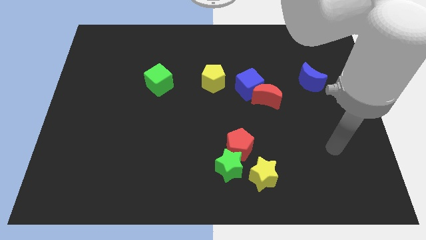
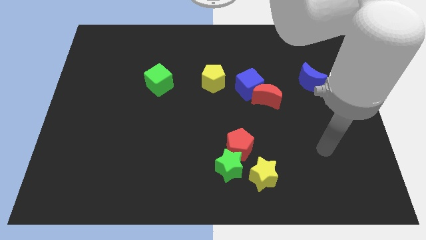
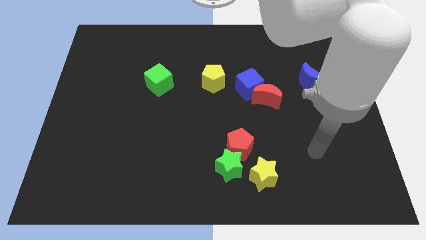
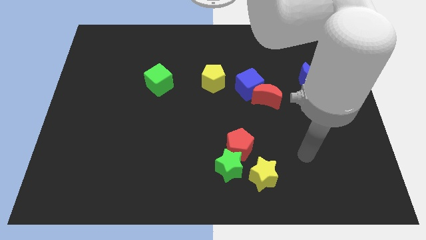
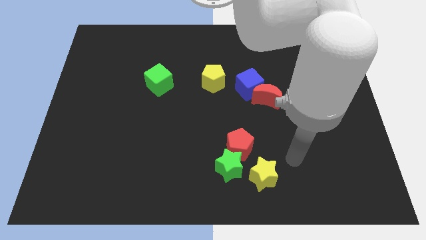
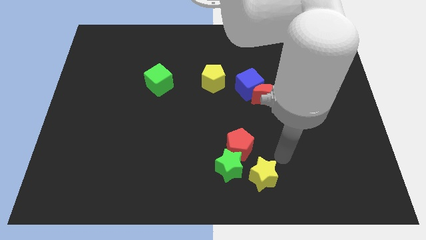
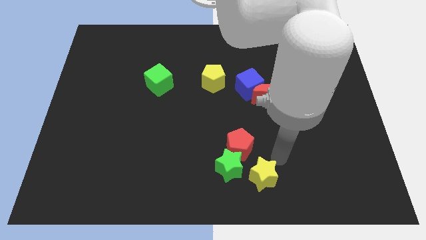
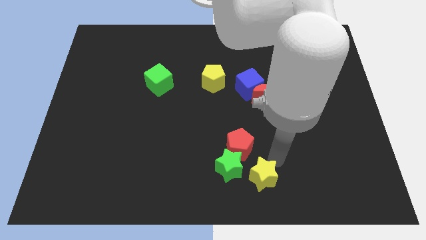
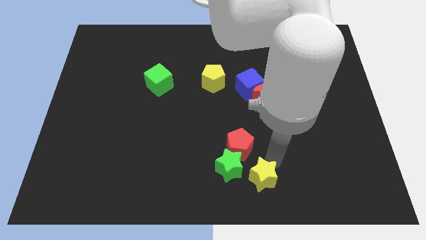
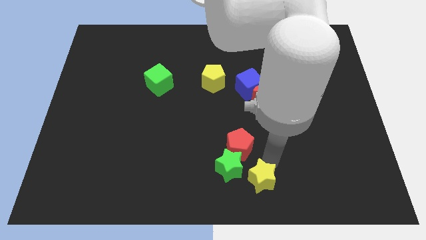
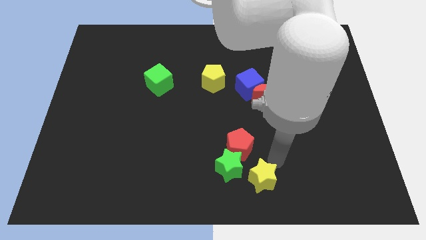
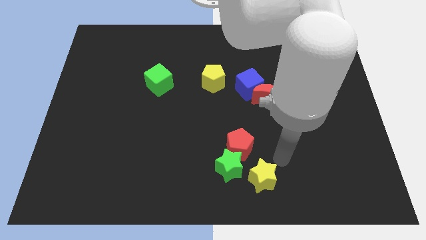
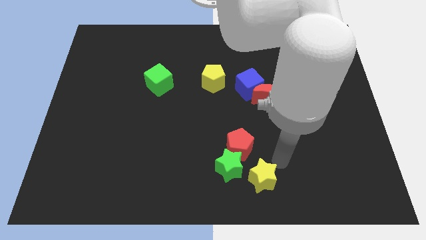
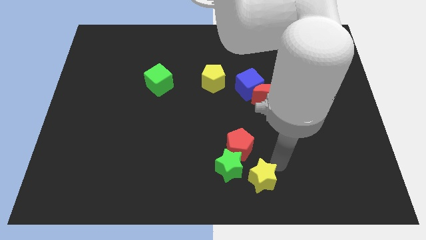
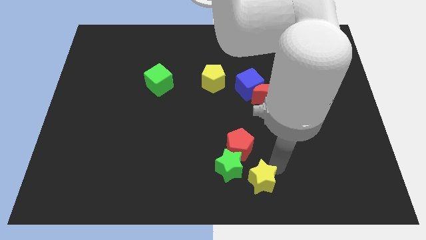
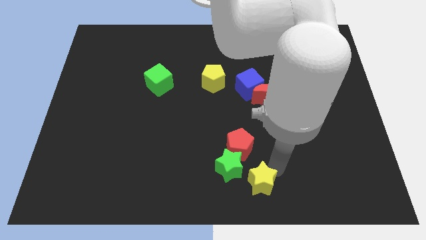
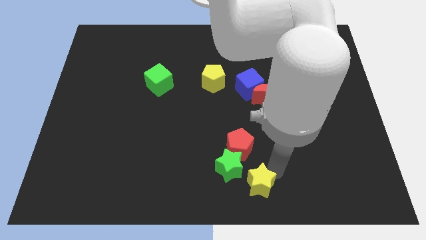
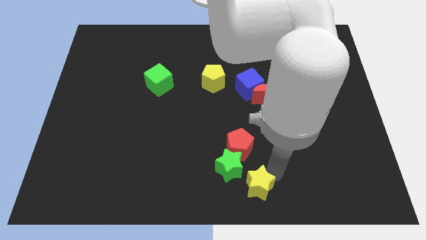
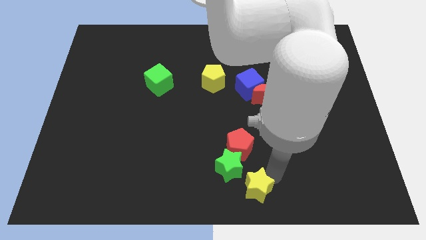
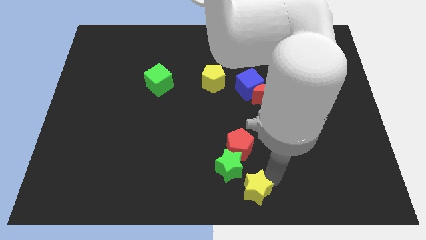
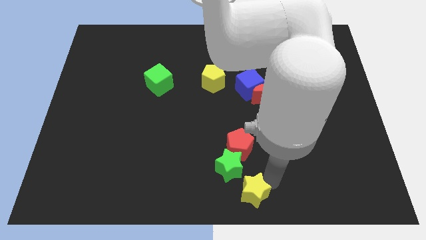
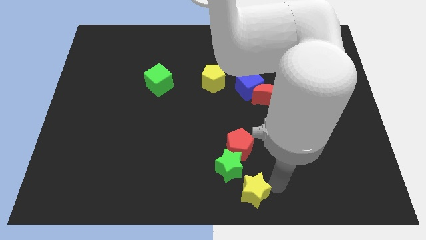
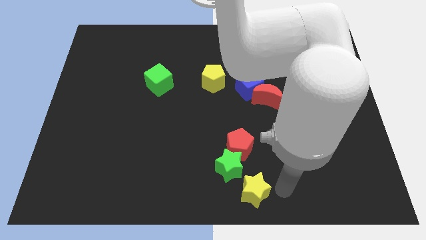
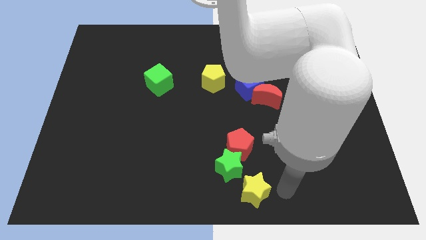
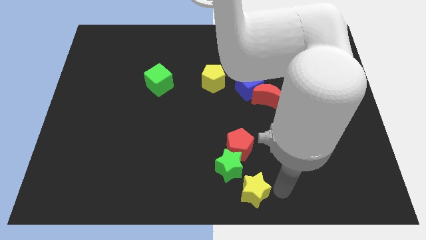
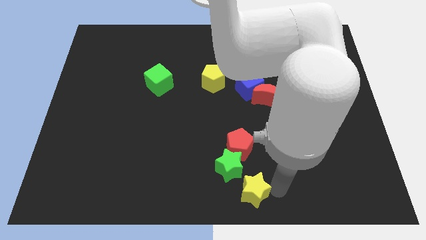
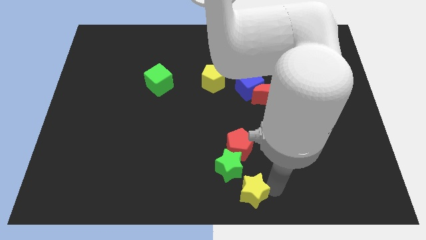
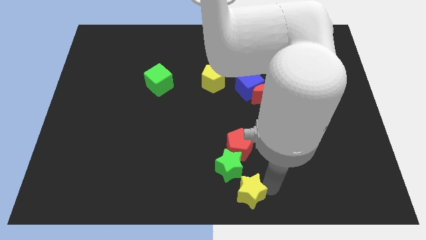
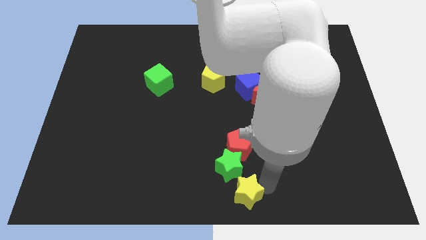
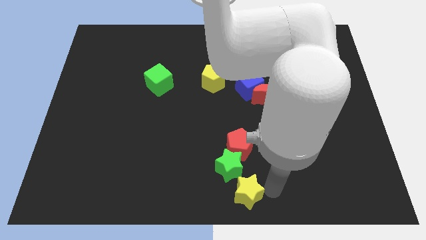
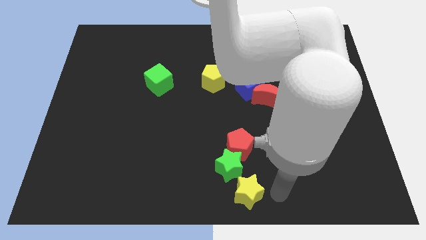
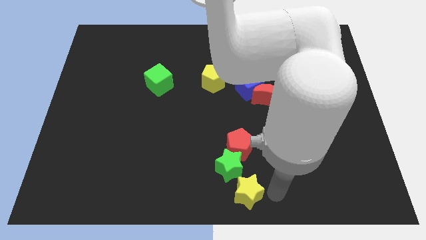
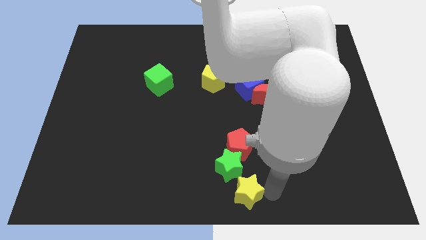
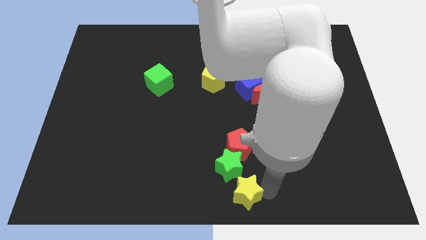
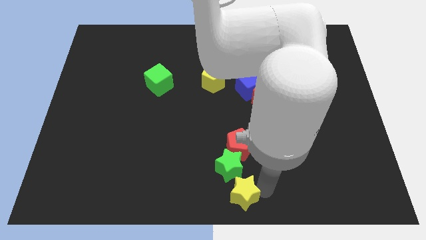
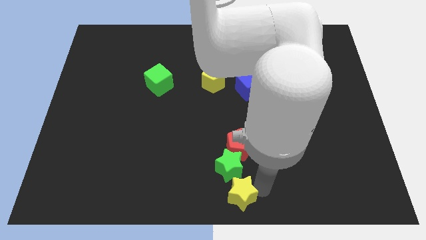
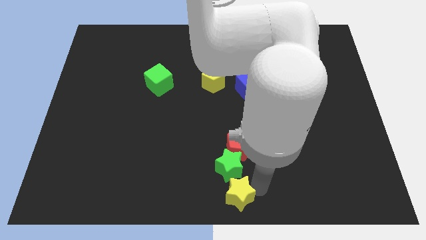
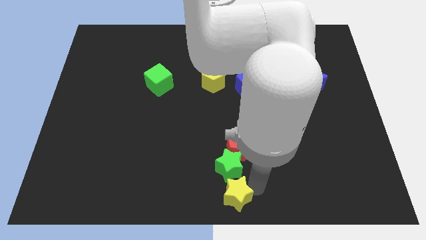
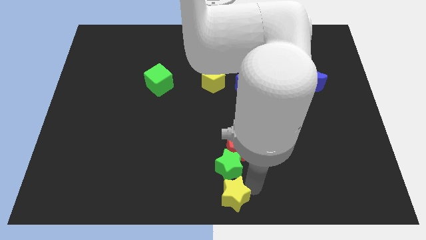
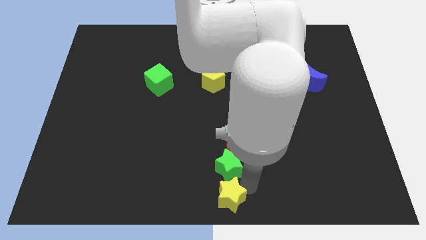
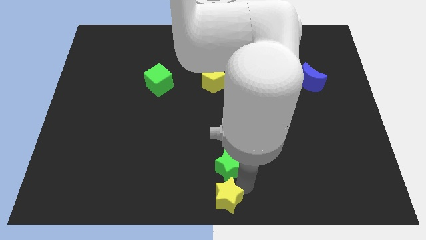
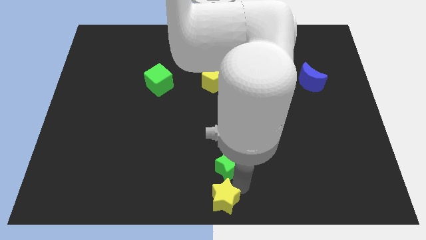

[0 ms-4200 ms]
slightly move the yellow star left

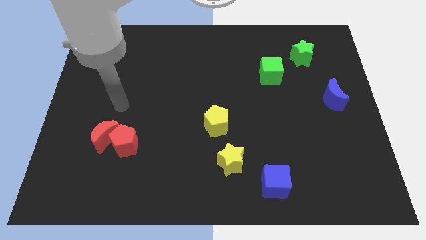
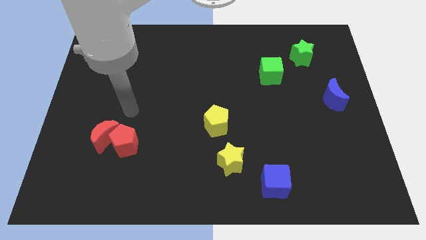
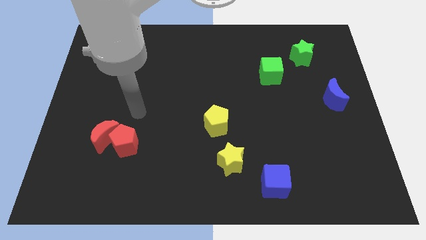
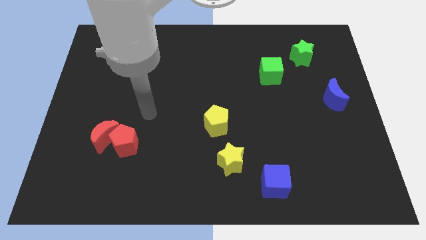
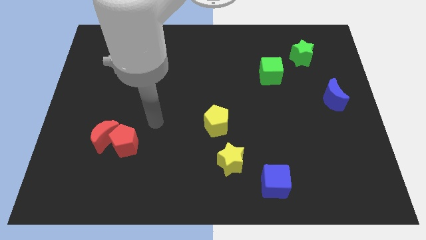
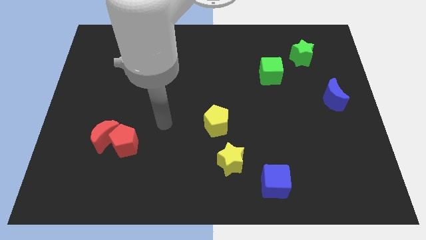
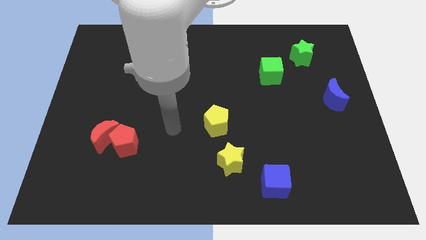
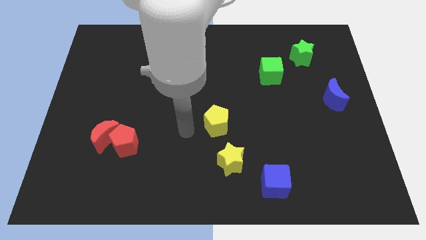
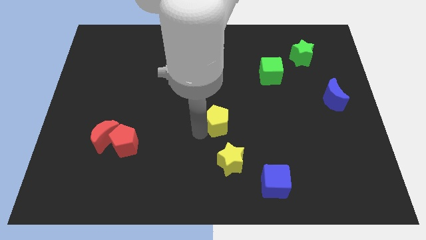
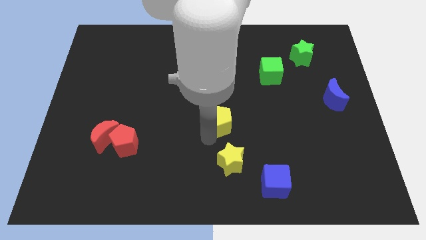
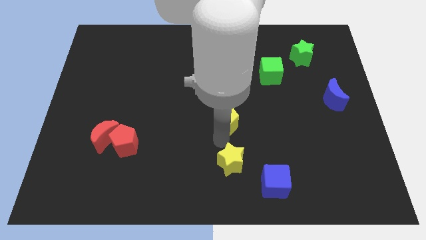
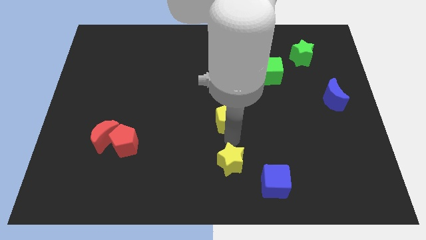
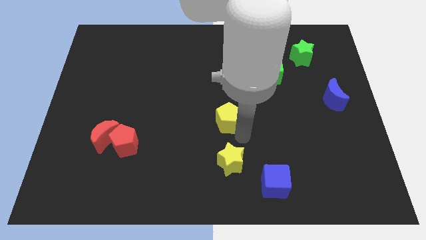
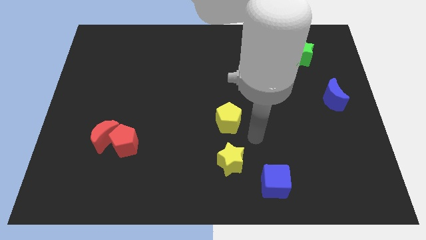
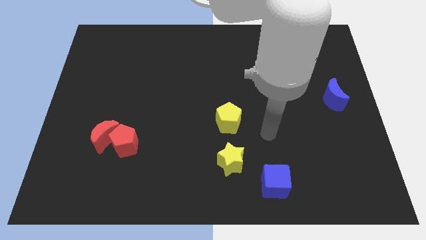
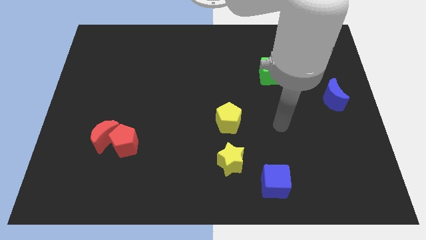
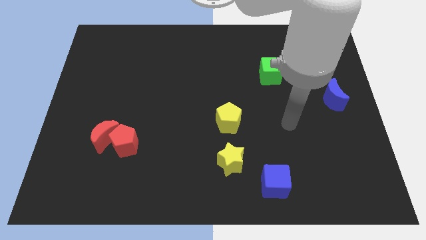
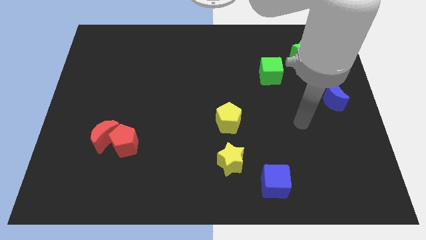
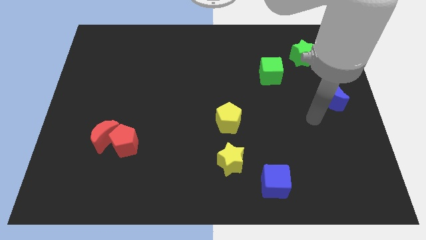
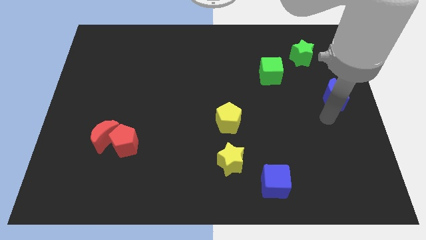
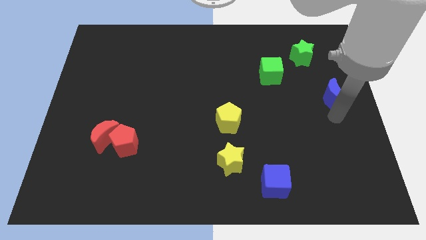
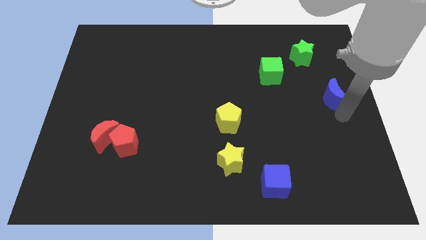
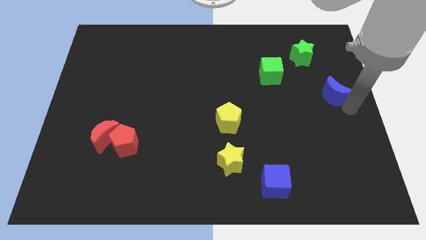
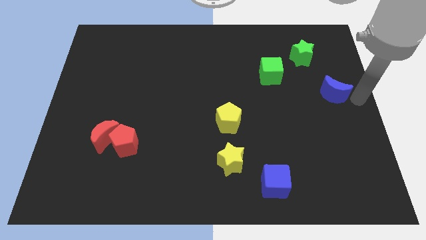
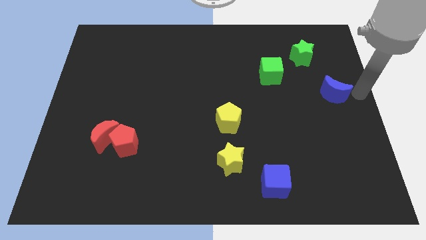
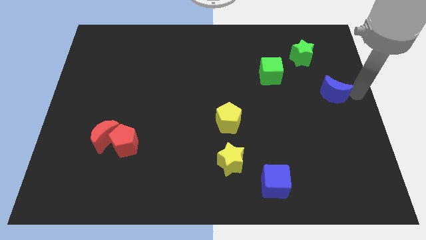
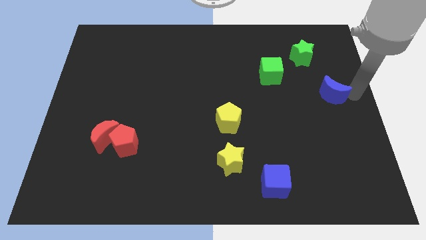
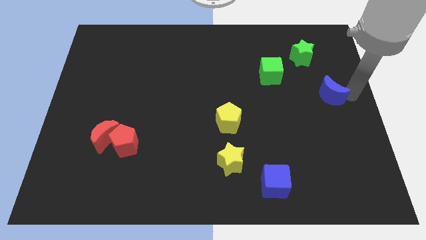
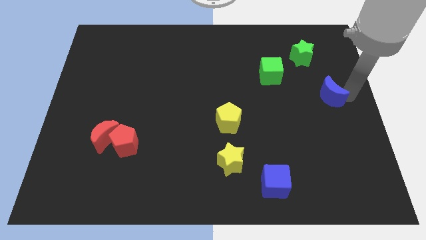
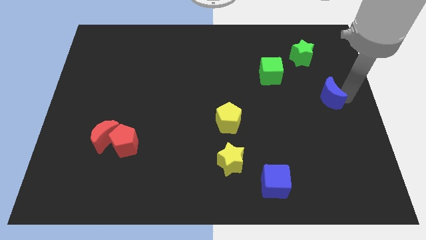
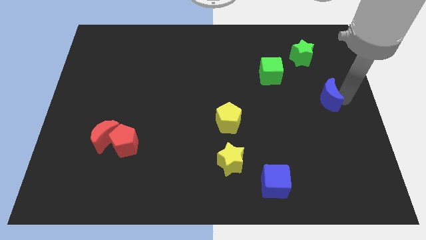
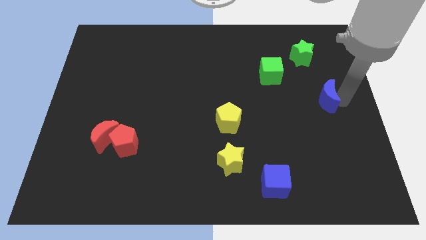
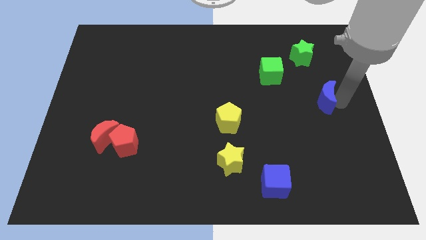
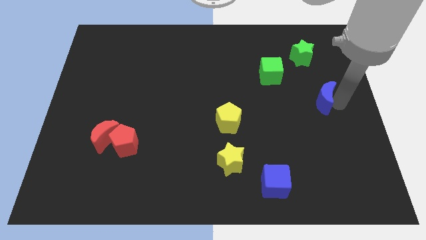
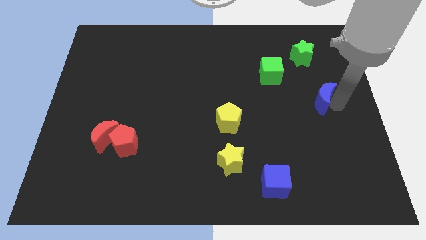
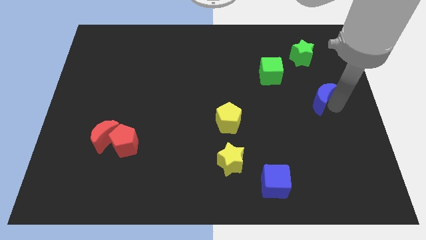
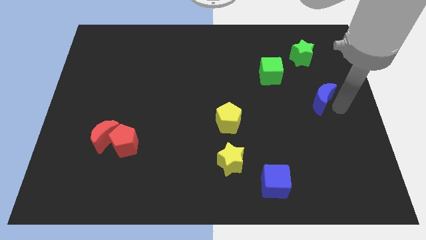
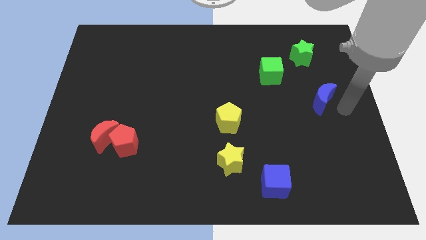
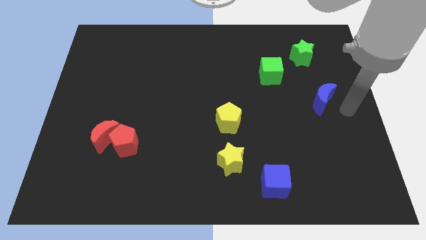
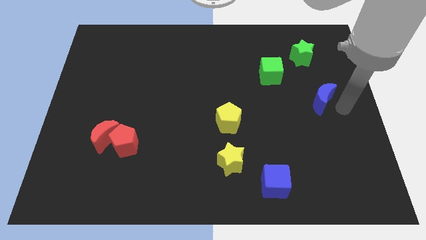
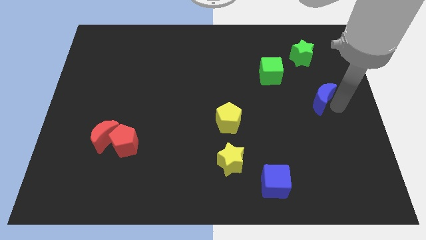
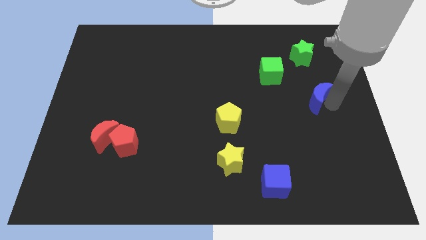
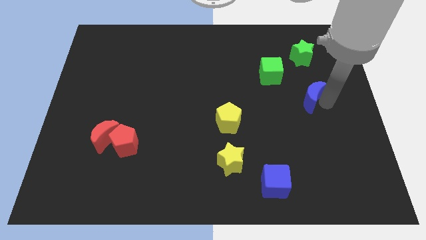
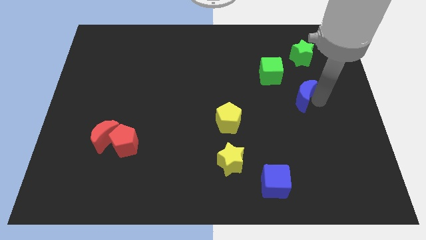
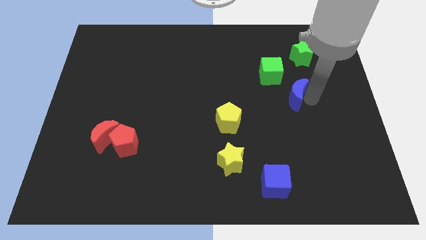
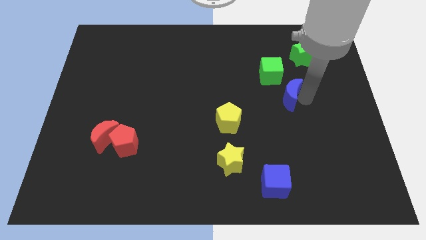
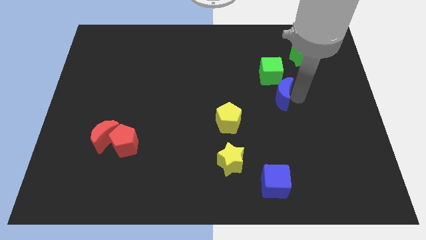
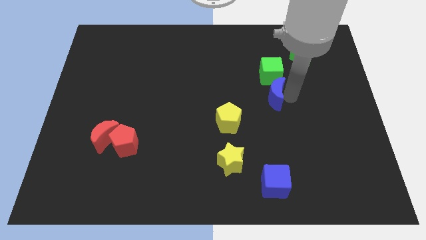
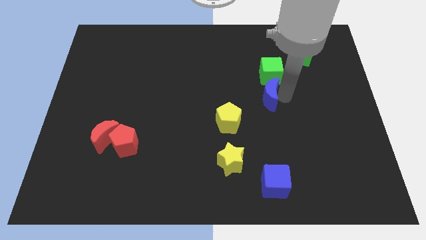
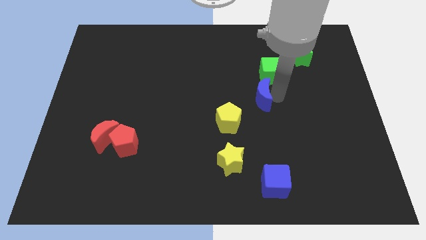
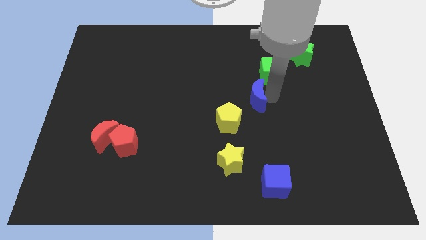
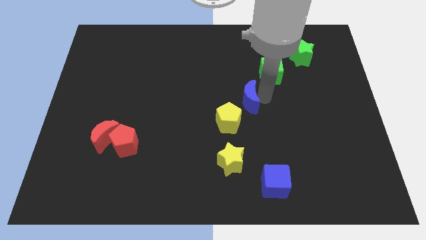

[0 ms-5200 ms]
move the blue moon left
